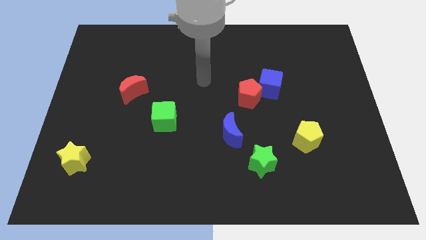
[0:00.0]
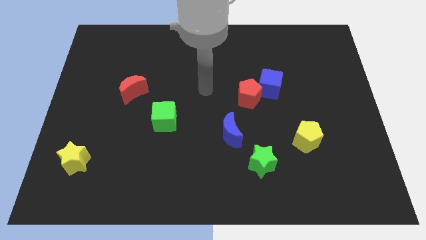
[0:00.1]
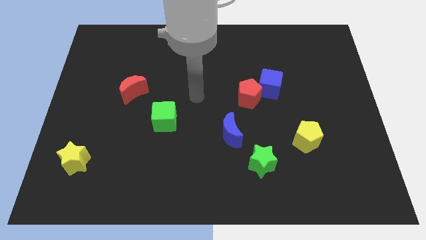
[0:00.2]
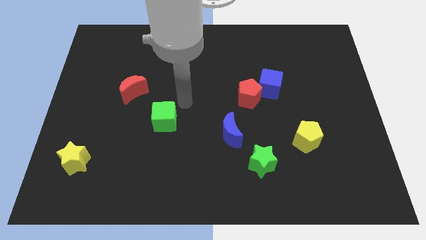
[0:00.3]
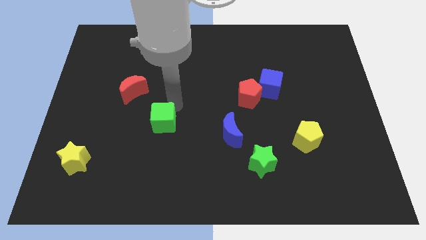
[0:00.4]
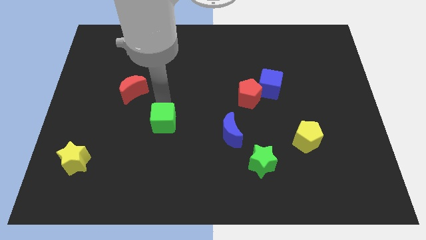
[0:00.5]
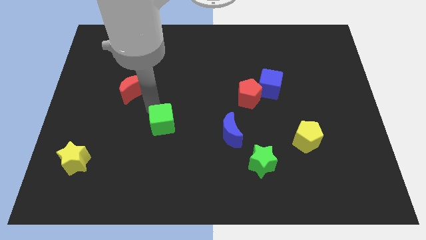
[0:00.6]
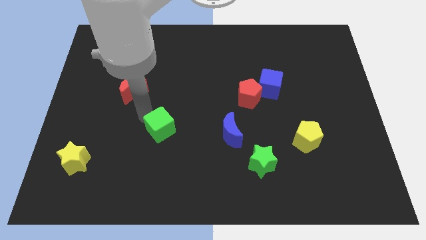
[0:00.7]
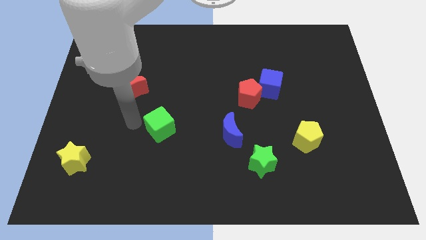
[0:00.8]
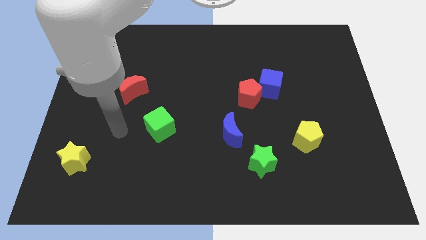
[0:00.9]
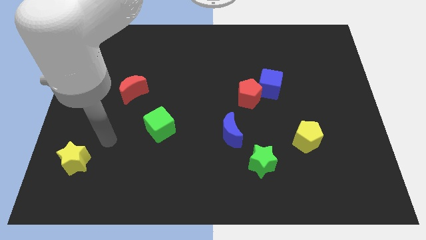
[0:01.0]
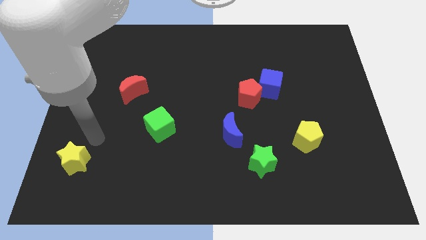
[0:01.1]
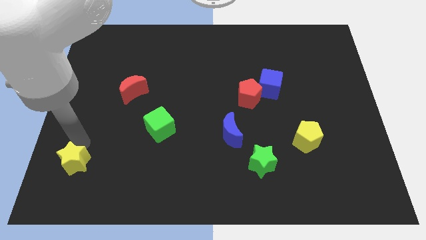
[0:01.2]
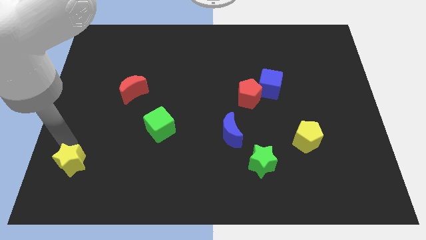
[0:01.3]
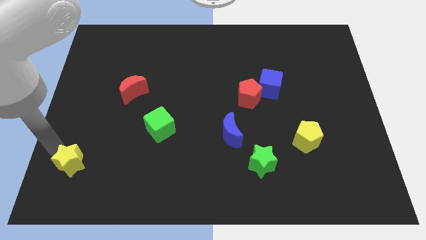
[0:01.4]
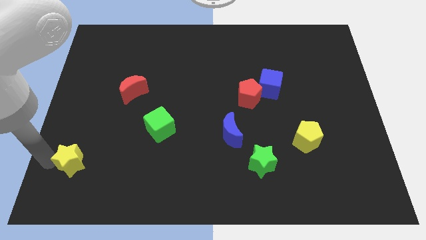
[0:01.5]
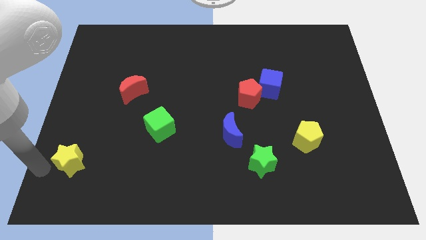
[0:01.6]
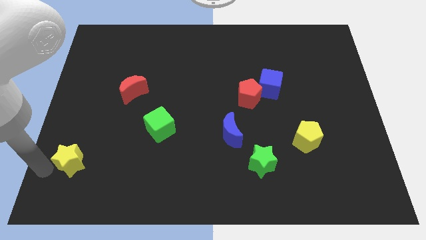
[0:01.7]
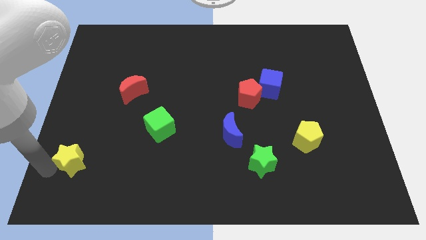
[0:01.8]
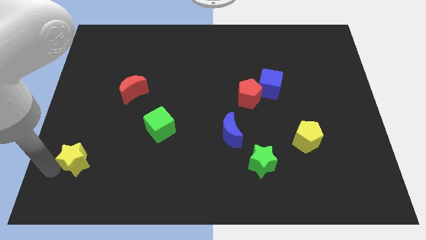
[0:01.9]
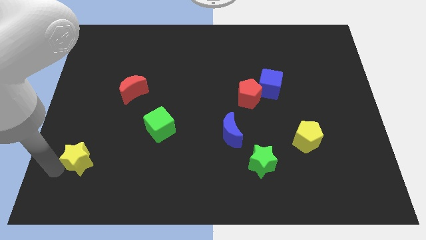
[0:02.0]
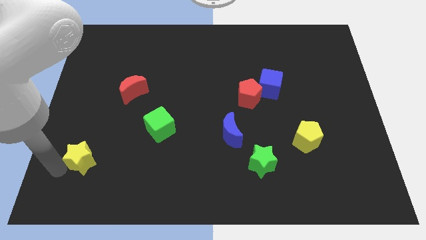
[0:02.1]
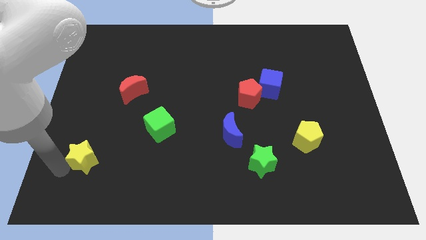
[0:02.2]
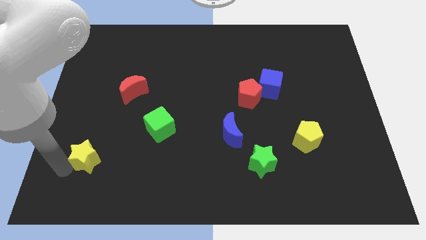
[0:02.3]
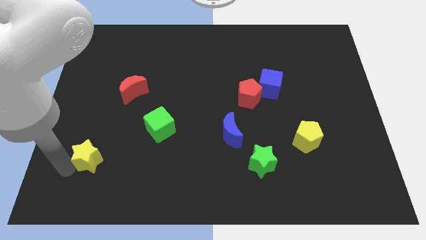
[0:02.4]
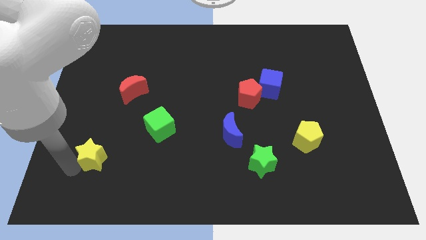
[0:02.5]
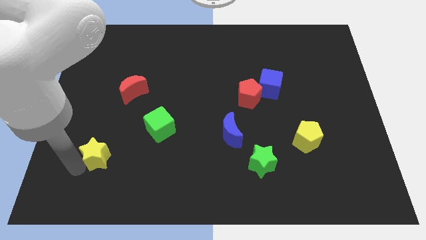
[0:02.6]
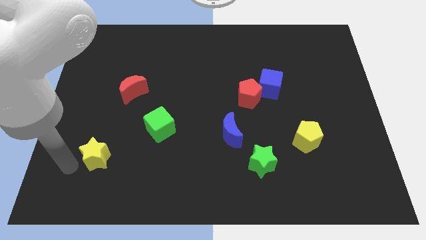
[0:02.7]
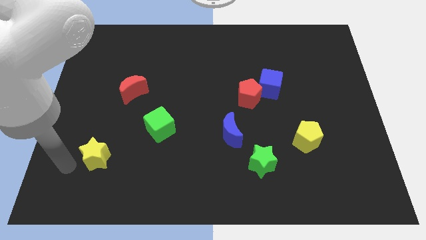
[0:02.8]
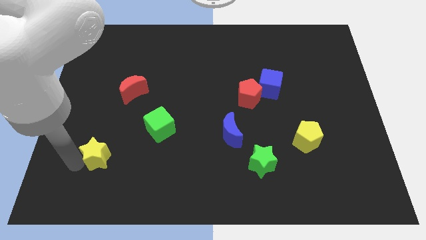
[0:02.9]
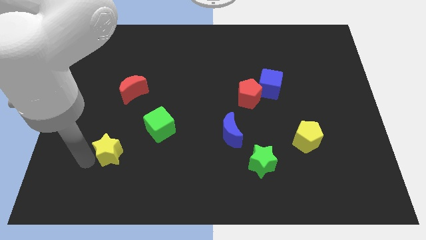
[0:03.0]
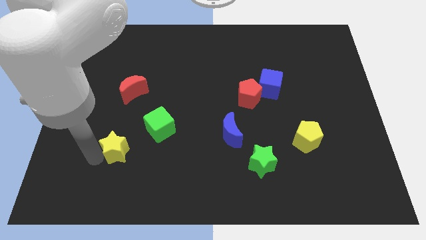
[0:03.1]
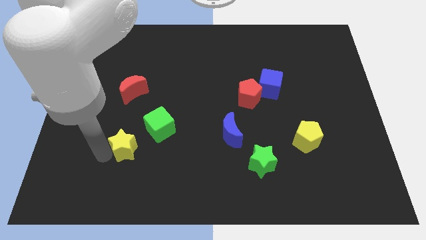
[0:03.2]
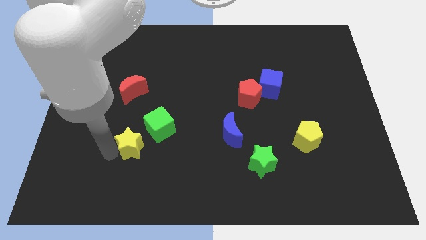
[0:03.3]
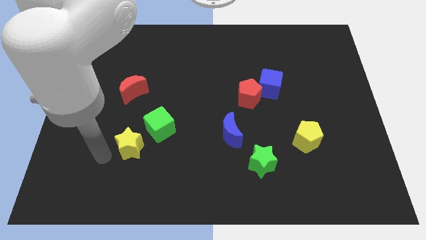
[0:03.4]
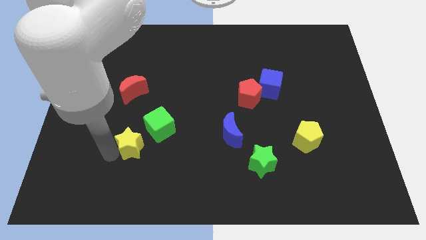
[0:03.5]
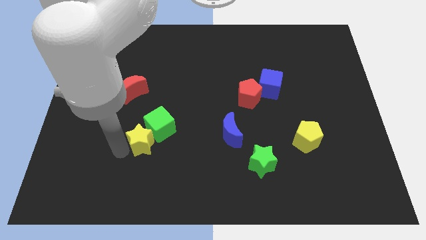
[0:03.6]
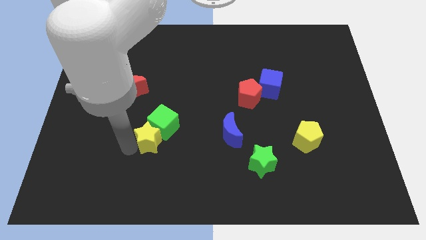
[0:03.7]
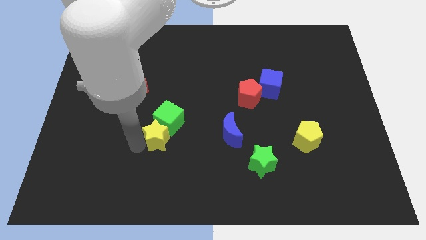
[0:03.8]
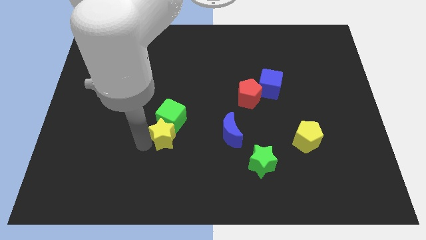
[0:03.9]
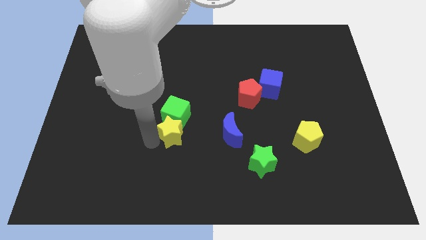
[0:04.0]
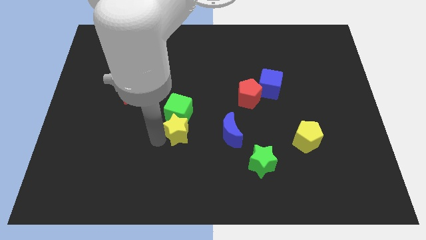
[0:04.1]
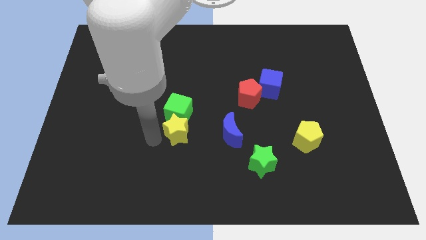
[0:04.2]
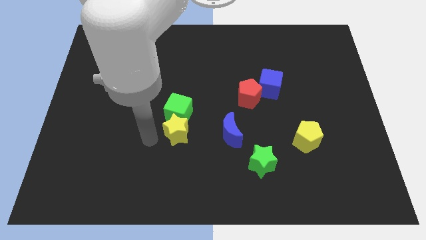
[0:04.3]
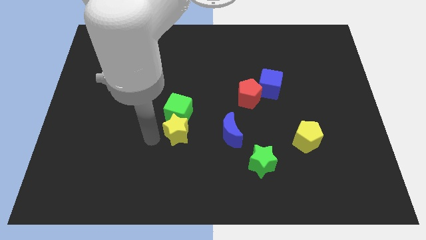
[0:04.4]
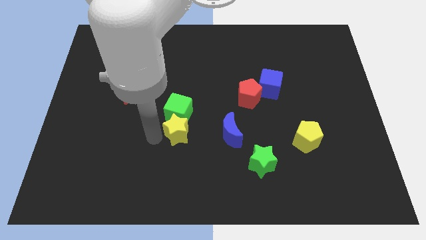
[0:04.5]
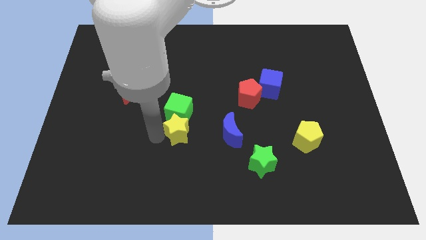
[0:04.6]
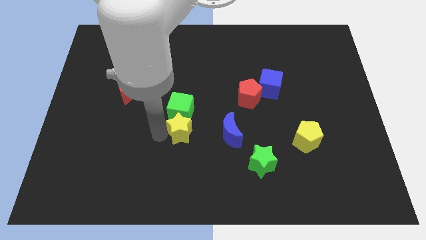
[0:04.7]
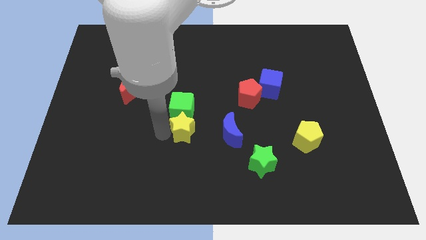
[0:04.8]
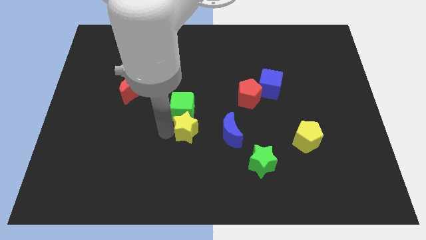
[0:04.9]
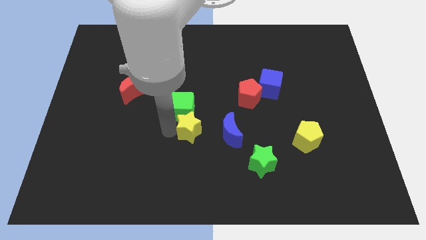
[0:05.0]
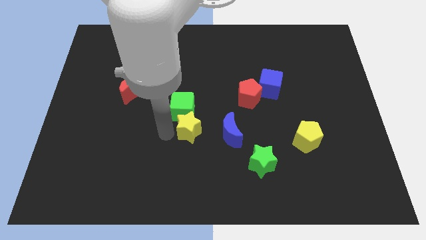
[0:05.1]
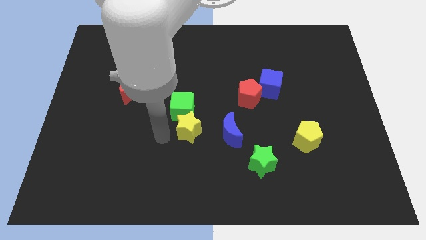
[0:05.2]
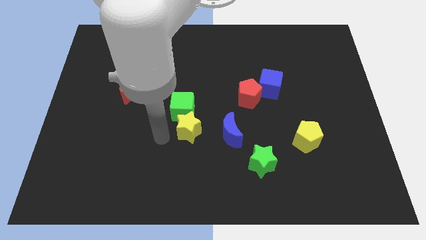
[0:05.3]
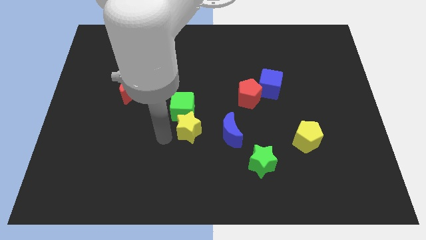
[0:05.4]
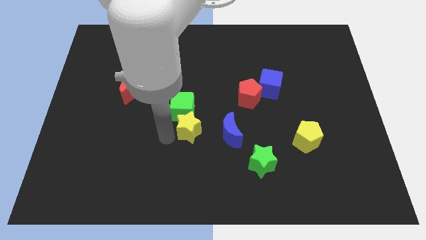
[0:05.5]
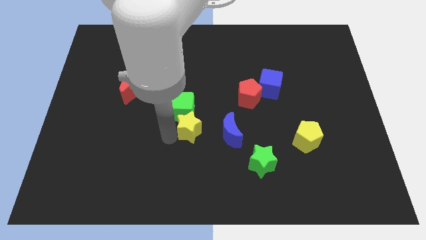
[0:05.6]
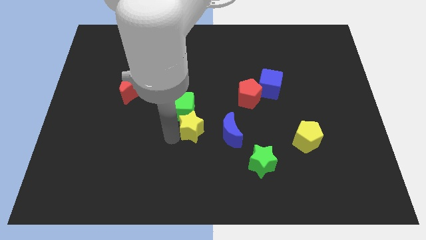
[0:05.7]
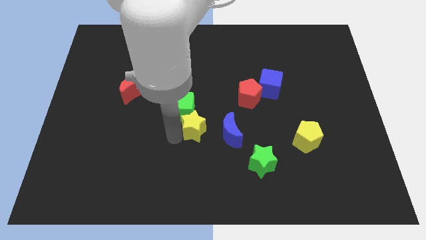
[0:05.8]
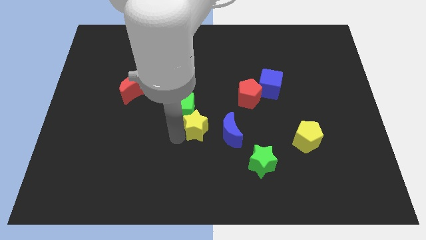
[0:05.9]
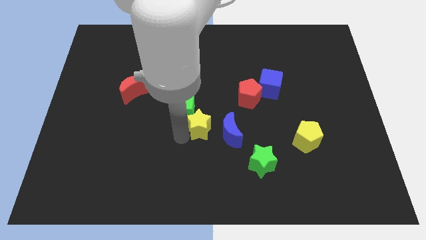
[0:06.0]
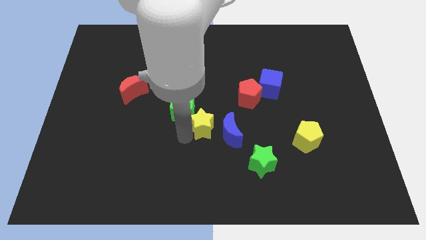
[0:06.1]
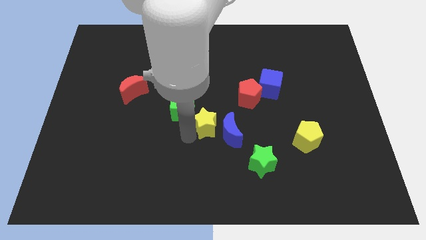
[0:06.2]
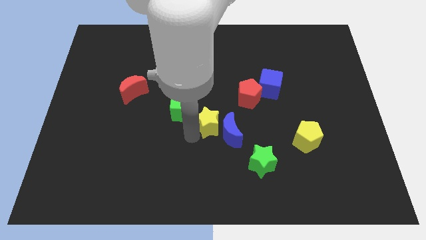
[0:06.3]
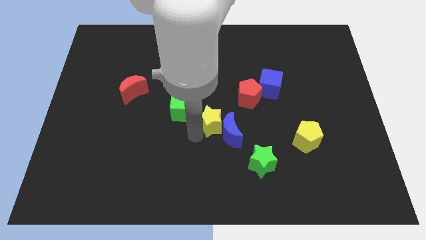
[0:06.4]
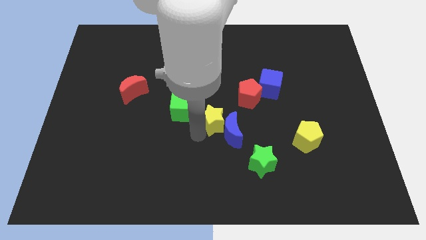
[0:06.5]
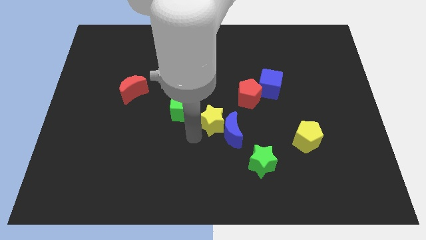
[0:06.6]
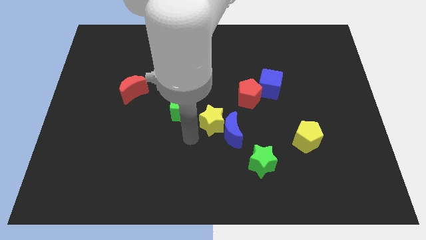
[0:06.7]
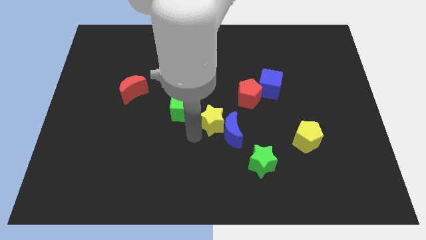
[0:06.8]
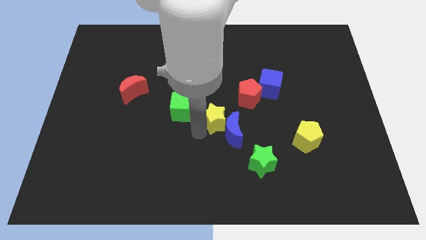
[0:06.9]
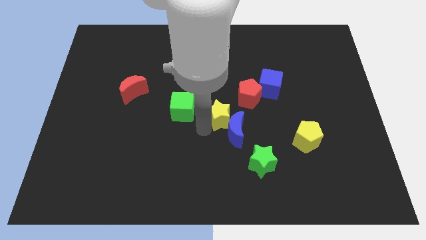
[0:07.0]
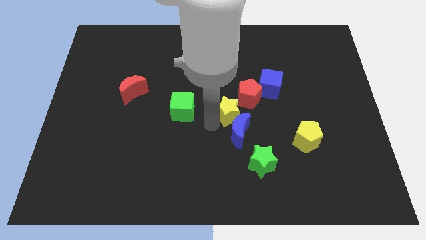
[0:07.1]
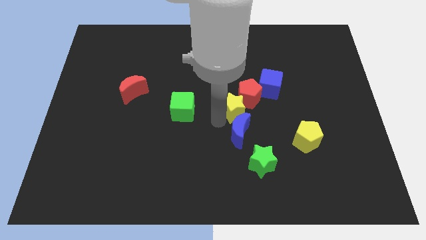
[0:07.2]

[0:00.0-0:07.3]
slide the yellow star close to the red pentagon

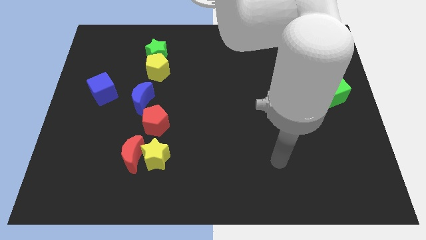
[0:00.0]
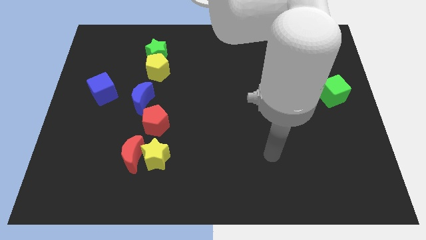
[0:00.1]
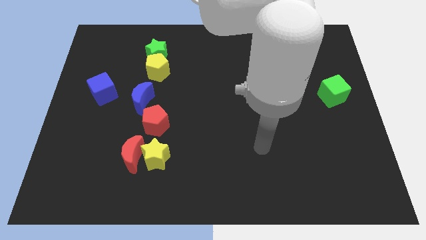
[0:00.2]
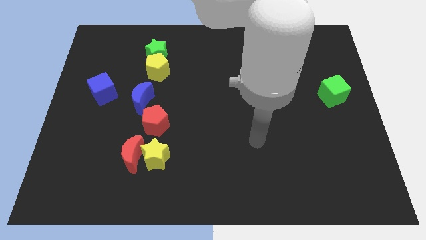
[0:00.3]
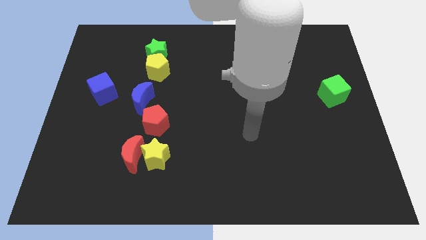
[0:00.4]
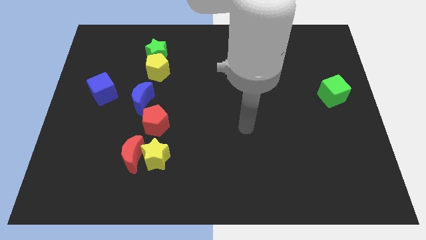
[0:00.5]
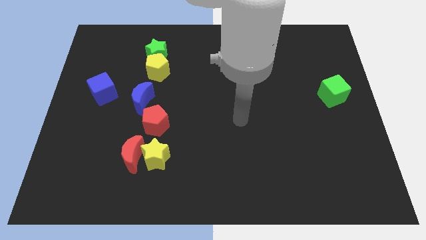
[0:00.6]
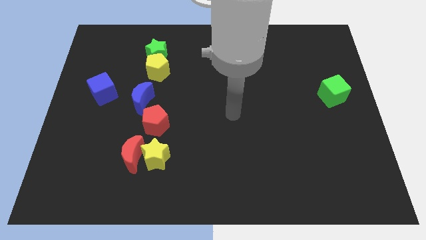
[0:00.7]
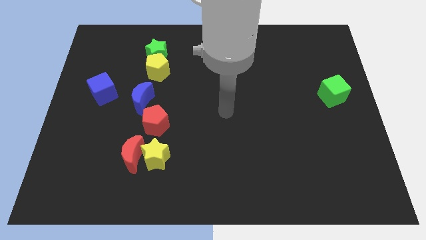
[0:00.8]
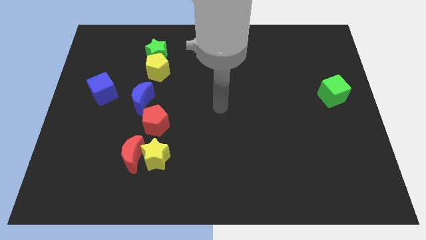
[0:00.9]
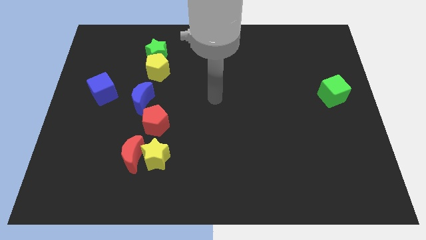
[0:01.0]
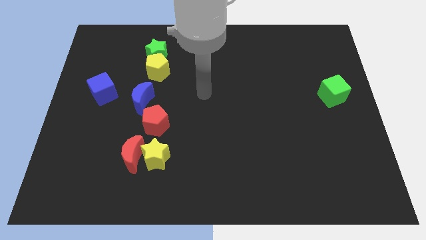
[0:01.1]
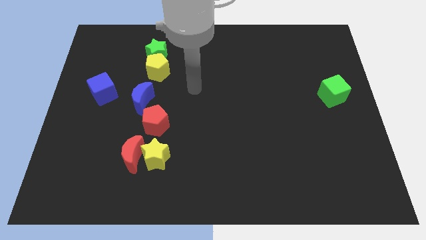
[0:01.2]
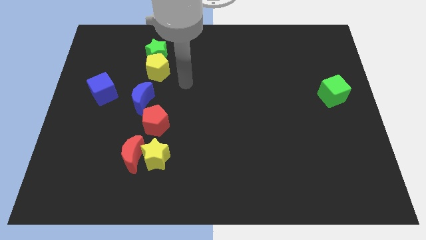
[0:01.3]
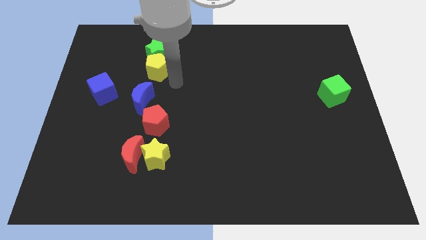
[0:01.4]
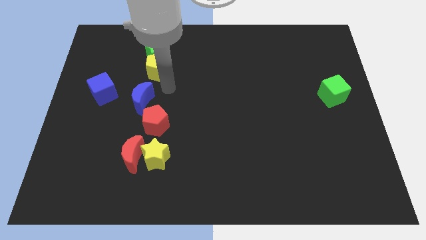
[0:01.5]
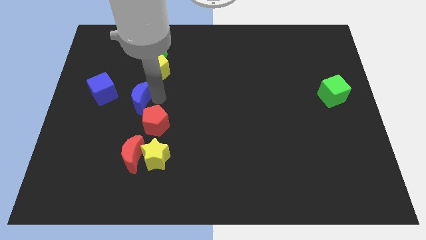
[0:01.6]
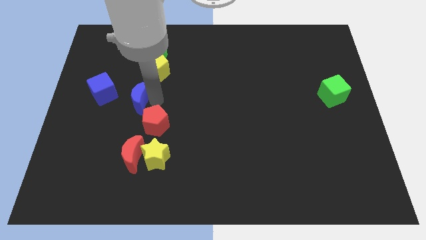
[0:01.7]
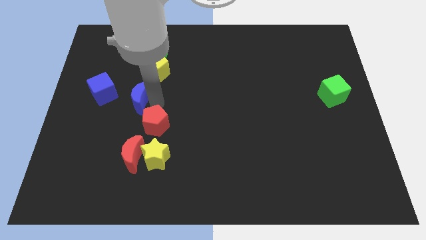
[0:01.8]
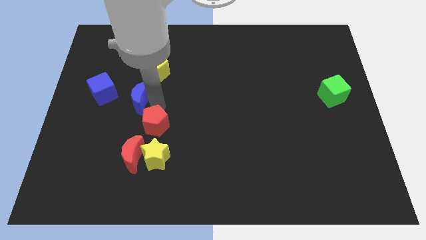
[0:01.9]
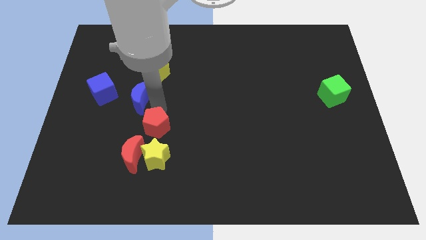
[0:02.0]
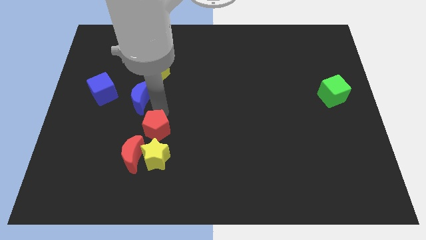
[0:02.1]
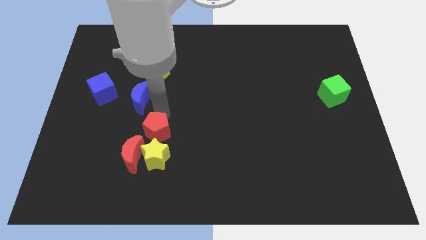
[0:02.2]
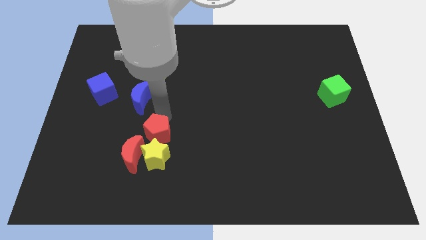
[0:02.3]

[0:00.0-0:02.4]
move the red pentagon towards the yellow star
